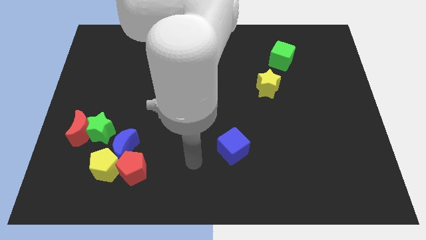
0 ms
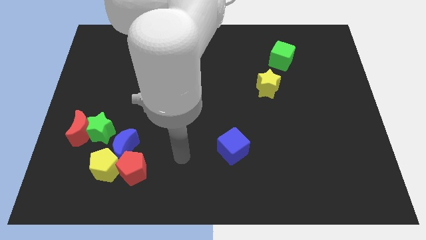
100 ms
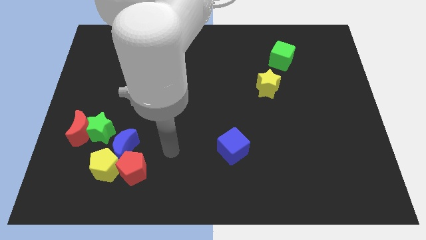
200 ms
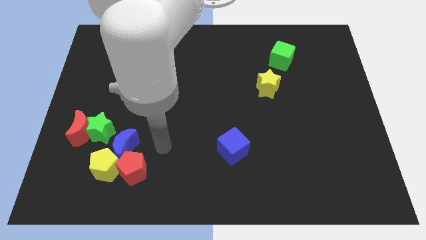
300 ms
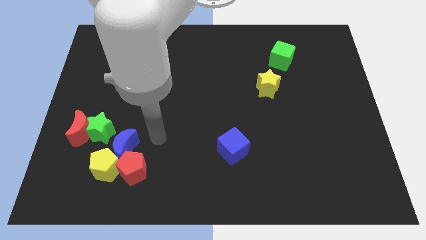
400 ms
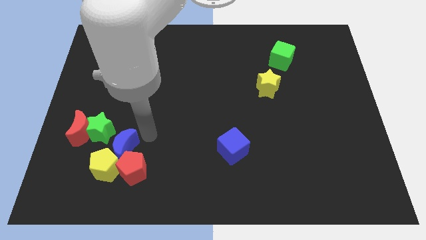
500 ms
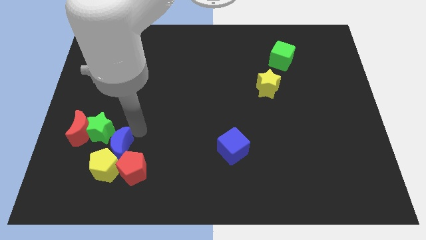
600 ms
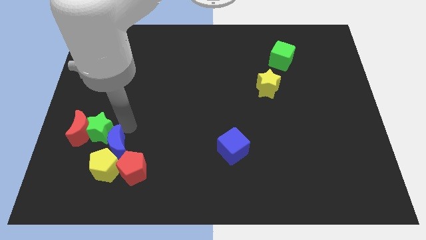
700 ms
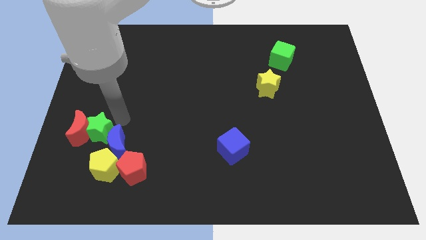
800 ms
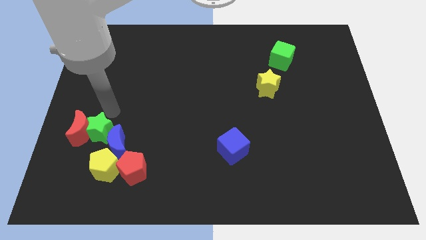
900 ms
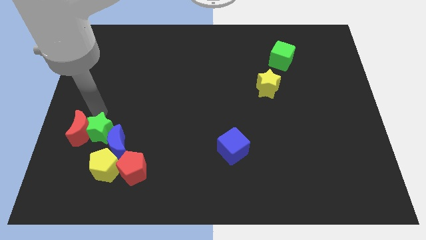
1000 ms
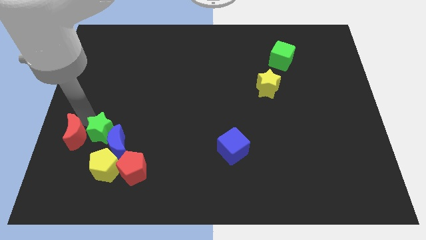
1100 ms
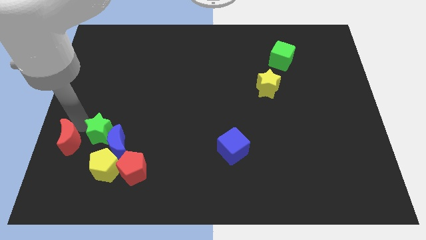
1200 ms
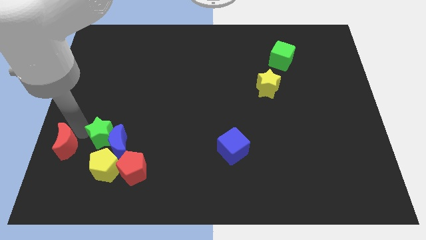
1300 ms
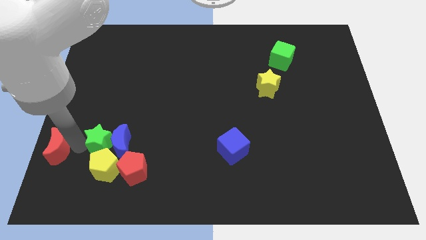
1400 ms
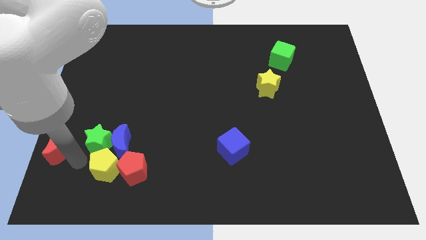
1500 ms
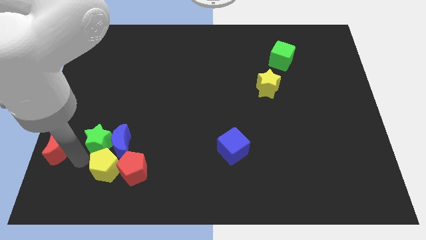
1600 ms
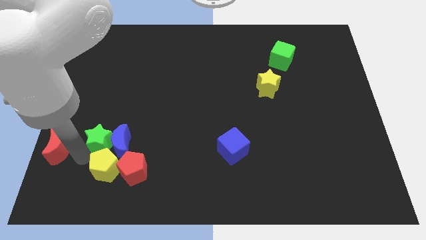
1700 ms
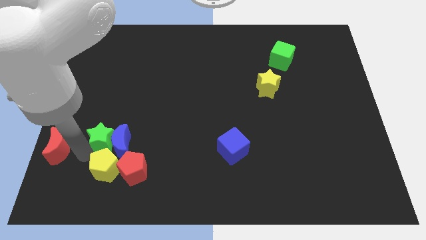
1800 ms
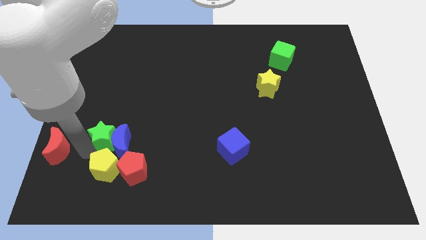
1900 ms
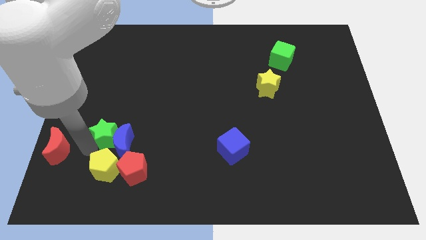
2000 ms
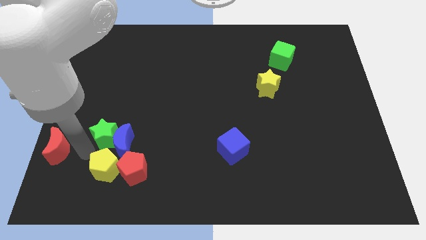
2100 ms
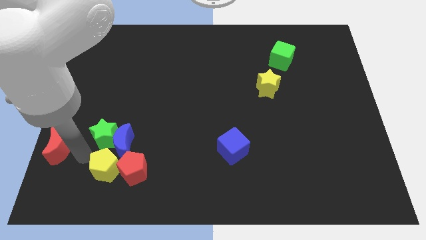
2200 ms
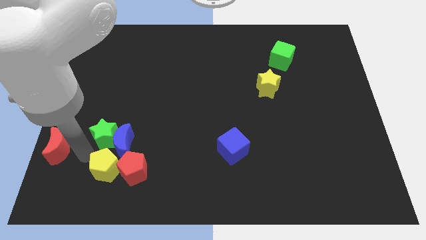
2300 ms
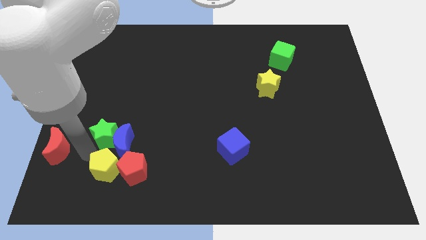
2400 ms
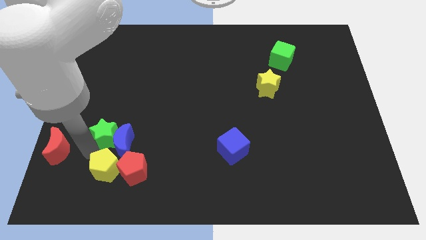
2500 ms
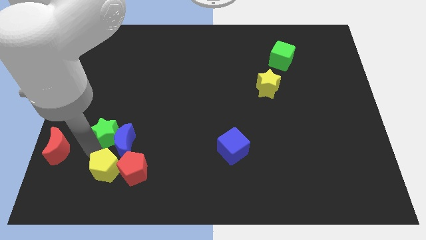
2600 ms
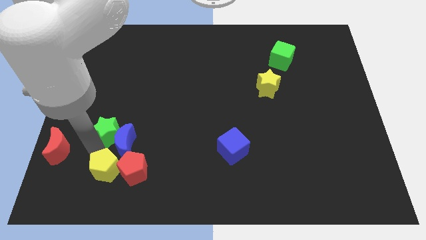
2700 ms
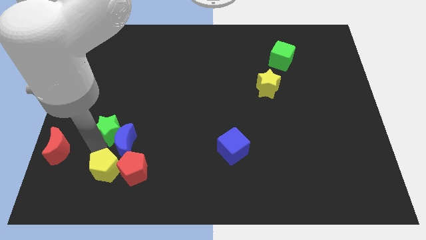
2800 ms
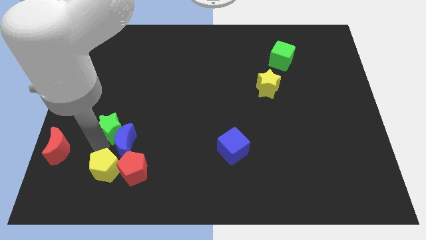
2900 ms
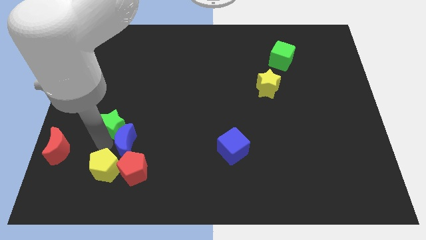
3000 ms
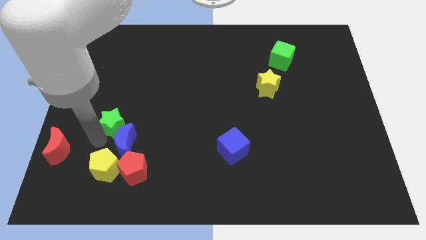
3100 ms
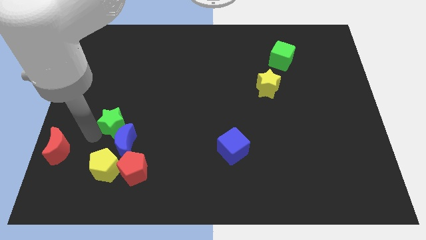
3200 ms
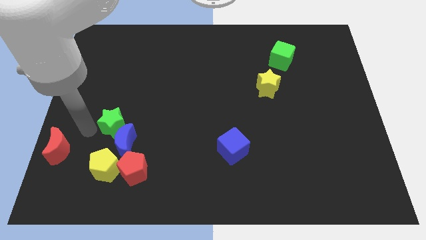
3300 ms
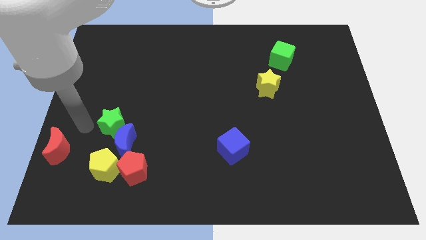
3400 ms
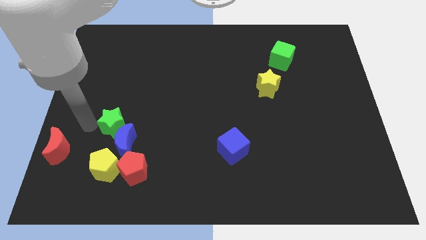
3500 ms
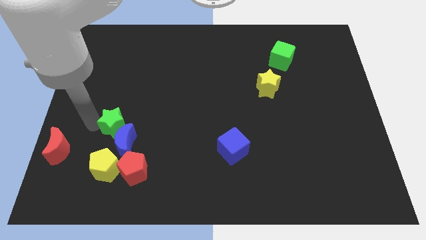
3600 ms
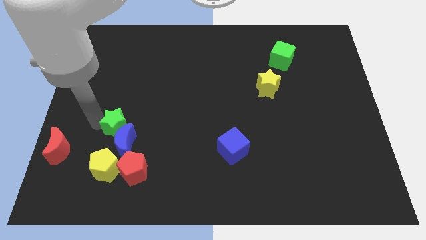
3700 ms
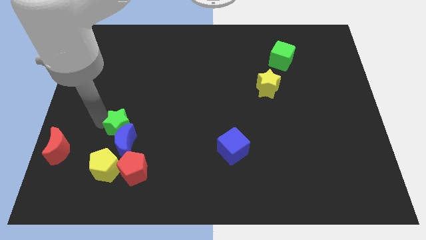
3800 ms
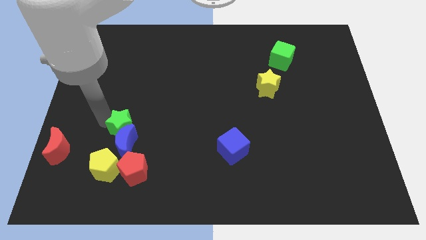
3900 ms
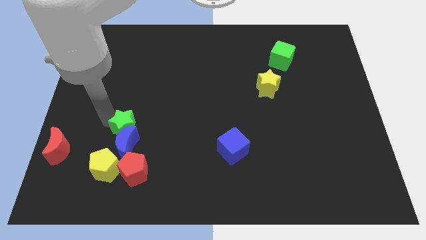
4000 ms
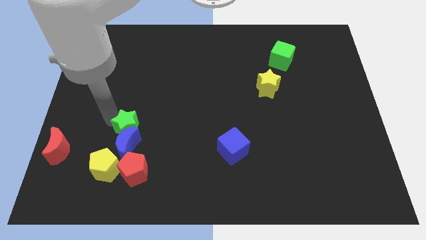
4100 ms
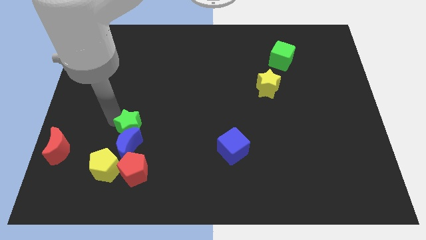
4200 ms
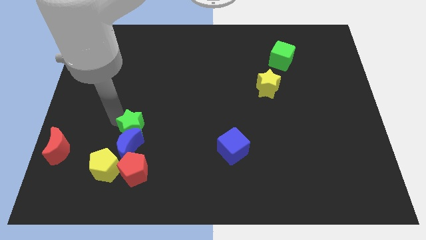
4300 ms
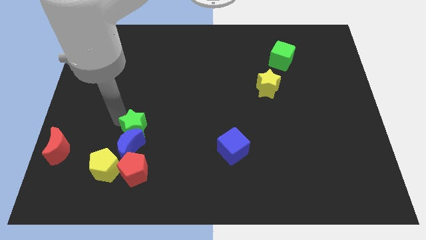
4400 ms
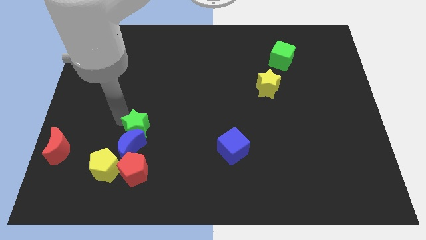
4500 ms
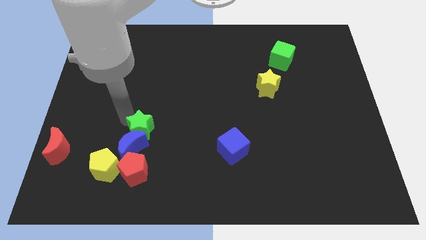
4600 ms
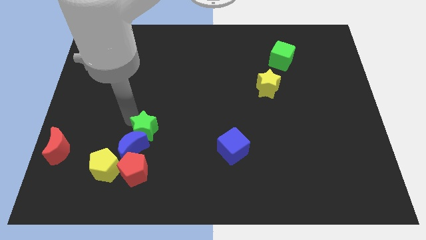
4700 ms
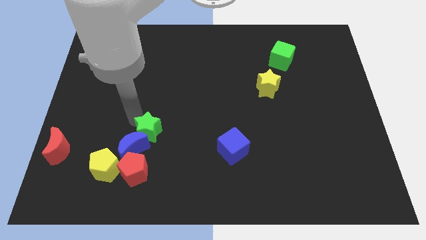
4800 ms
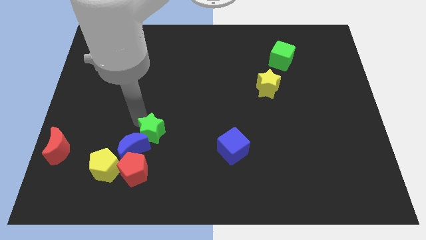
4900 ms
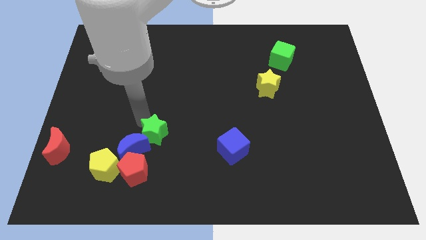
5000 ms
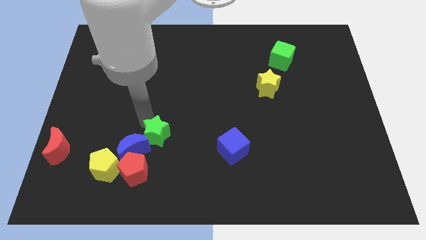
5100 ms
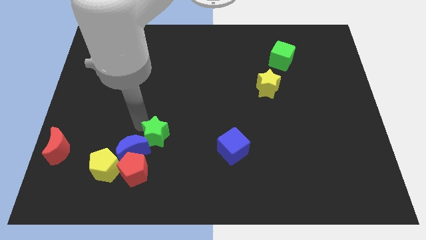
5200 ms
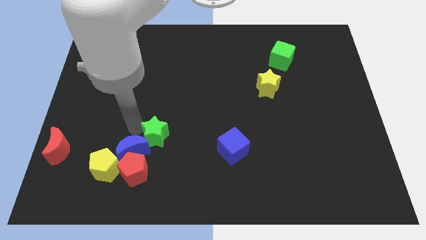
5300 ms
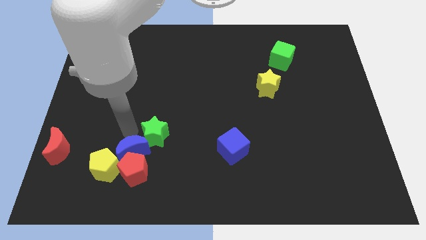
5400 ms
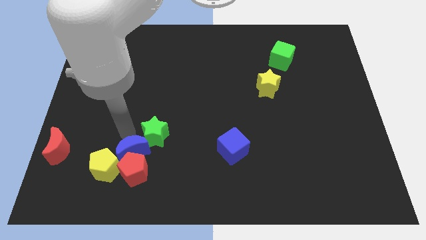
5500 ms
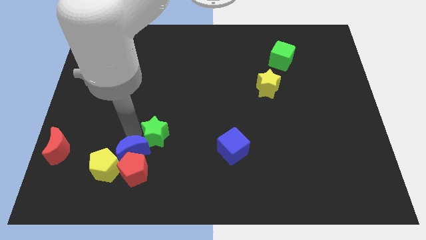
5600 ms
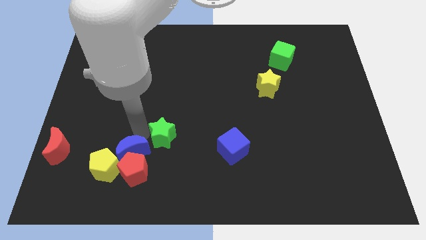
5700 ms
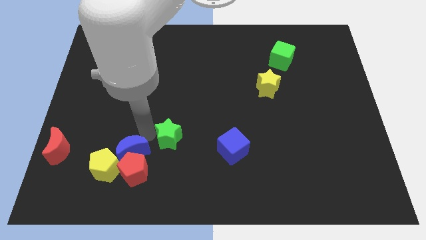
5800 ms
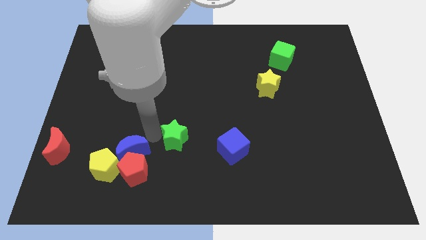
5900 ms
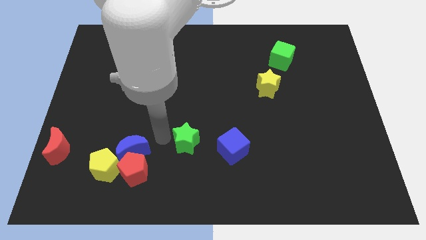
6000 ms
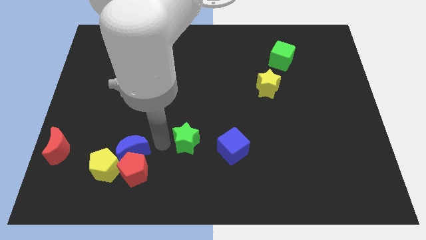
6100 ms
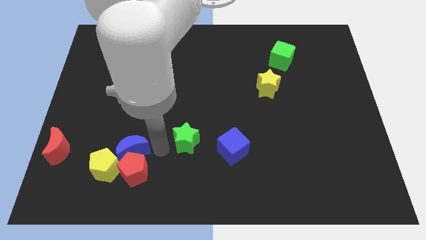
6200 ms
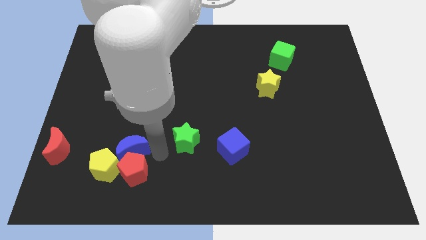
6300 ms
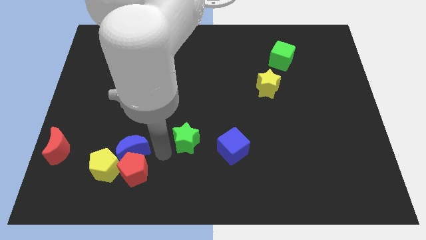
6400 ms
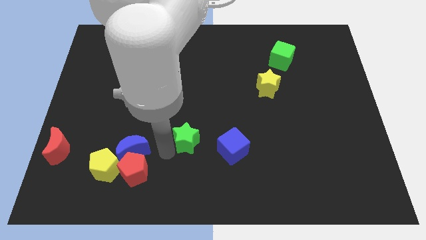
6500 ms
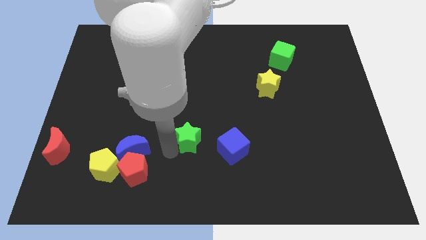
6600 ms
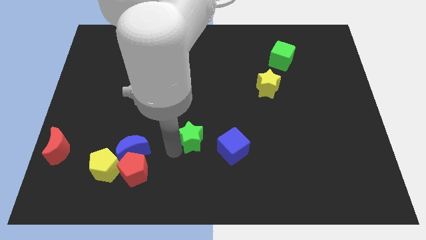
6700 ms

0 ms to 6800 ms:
put the green star to the top left of the blue cube
